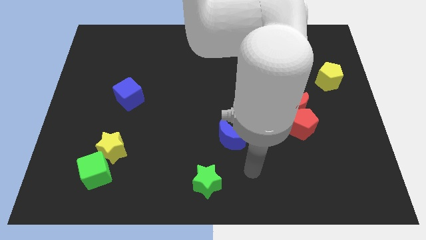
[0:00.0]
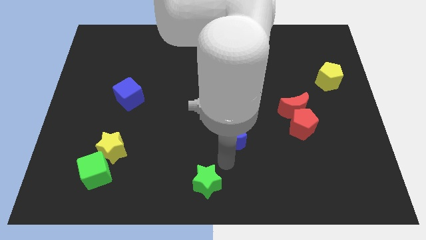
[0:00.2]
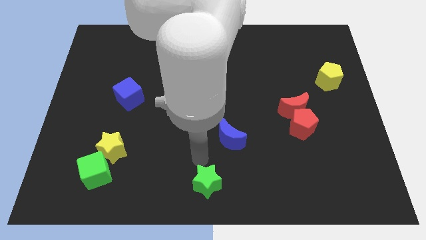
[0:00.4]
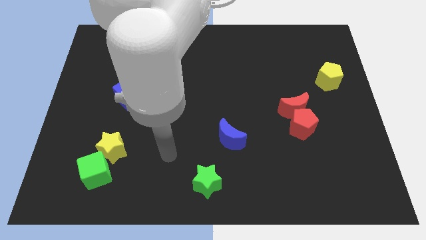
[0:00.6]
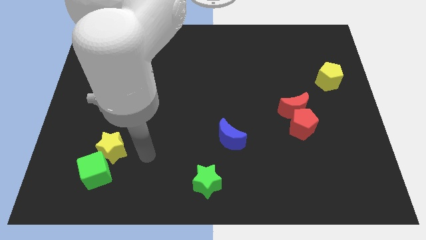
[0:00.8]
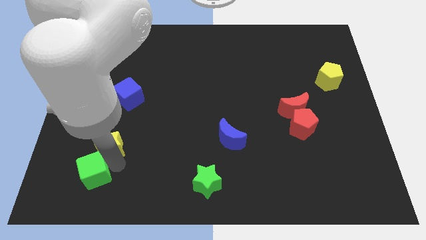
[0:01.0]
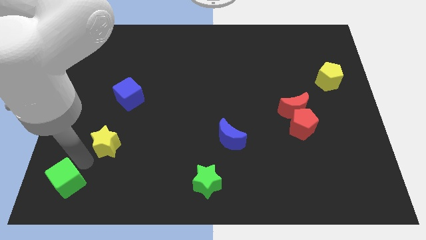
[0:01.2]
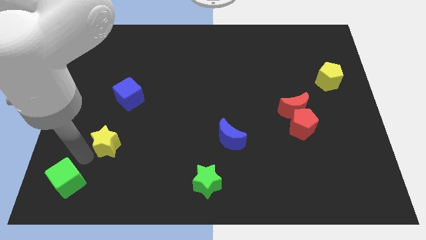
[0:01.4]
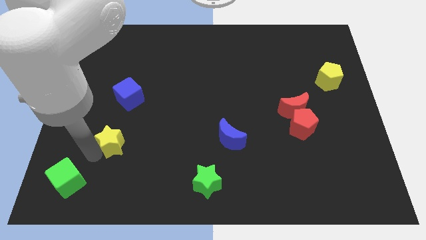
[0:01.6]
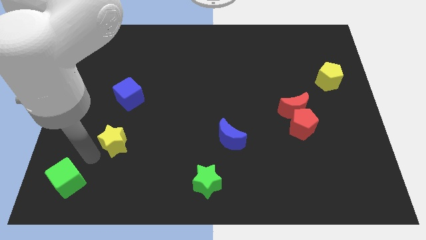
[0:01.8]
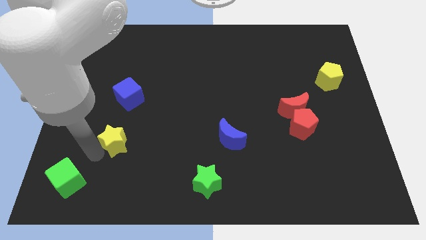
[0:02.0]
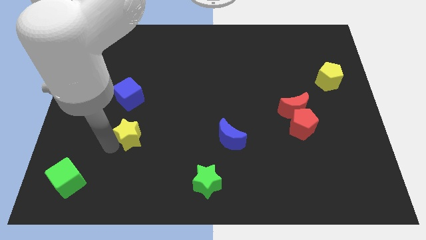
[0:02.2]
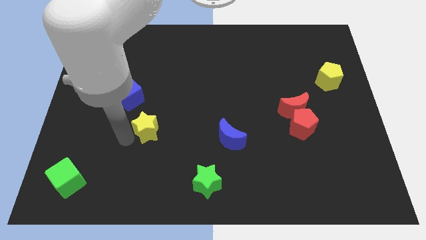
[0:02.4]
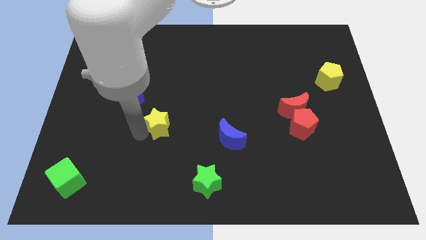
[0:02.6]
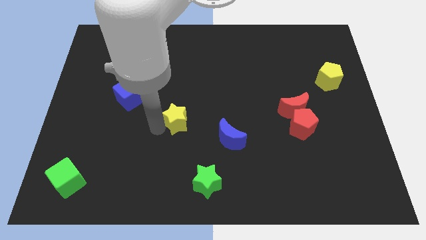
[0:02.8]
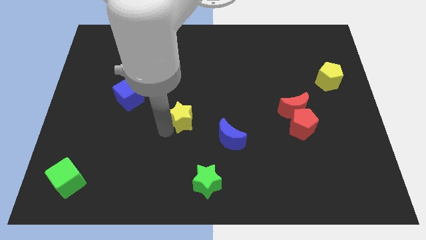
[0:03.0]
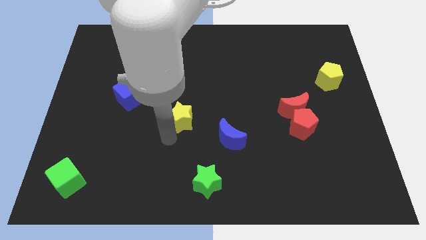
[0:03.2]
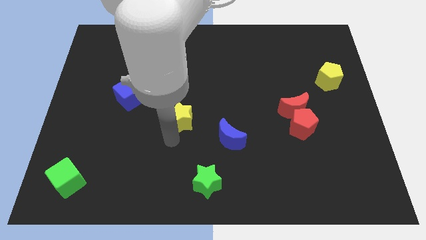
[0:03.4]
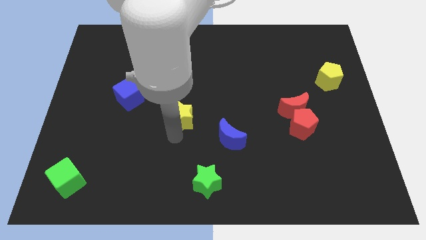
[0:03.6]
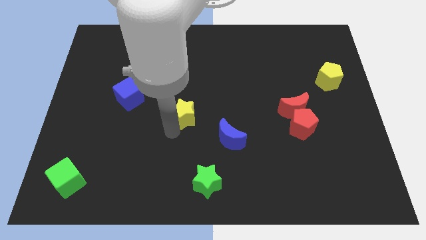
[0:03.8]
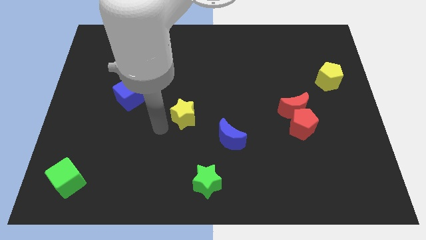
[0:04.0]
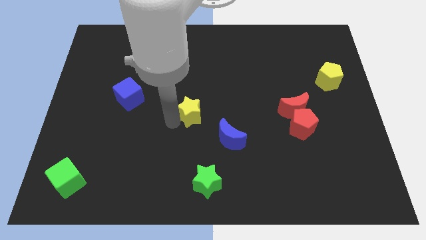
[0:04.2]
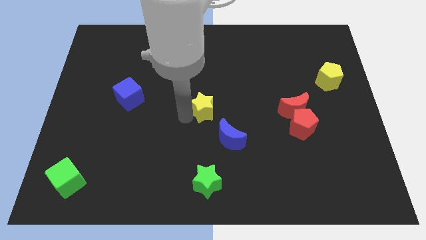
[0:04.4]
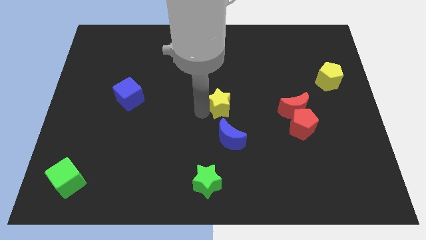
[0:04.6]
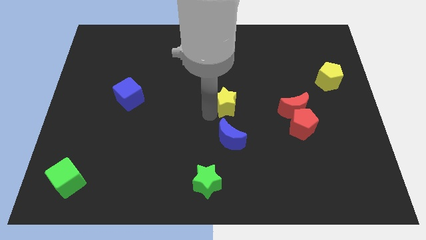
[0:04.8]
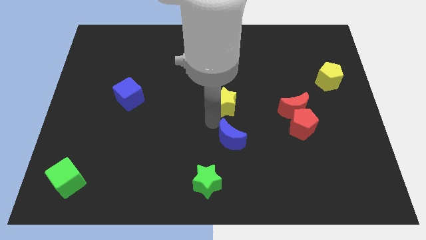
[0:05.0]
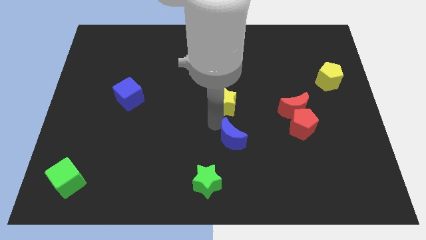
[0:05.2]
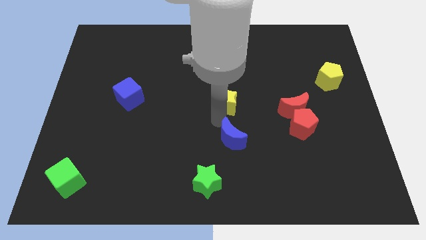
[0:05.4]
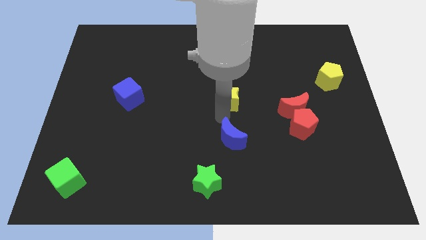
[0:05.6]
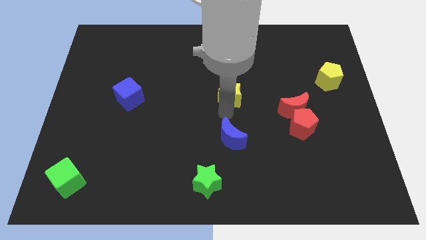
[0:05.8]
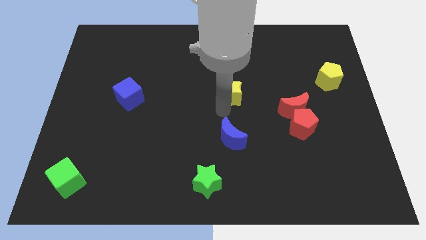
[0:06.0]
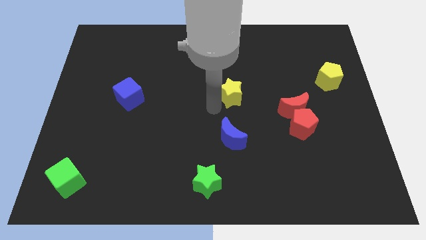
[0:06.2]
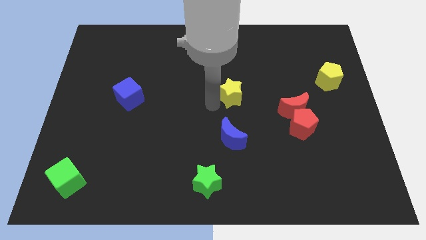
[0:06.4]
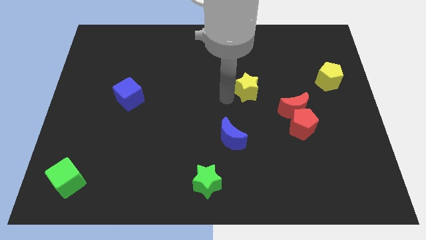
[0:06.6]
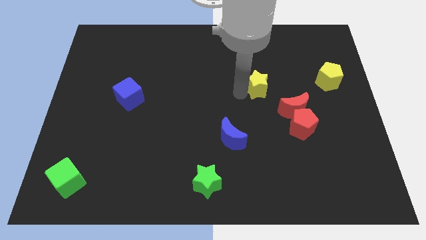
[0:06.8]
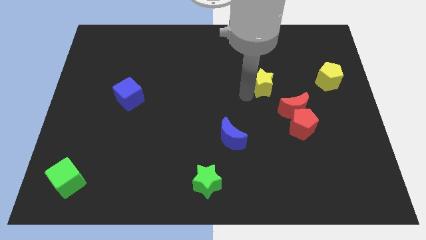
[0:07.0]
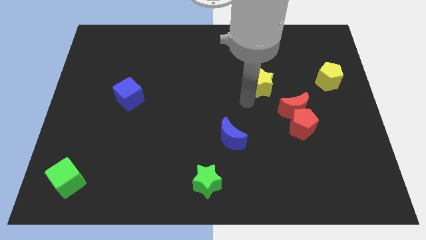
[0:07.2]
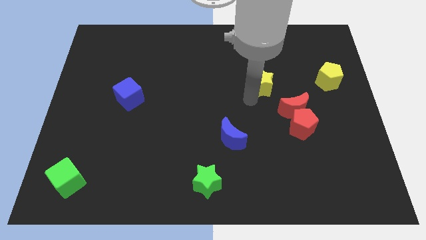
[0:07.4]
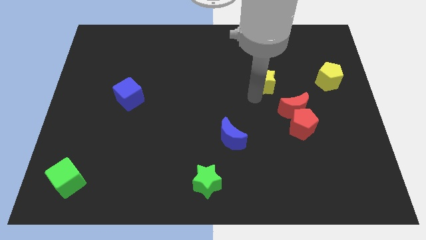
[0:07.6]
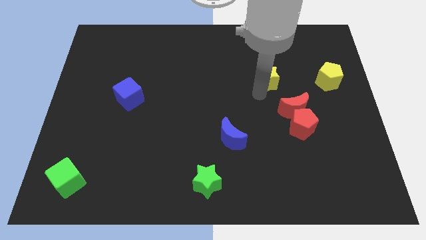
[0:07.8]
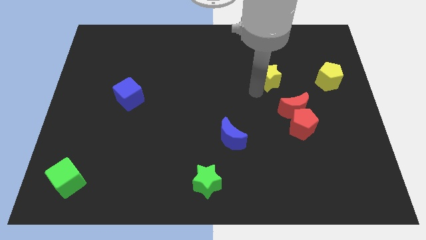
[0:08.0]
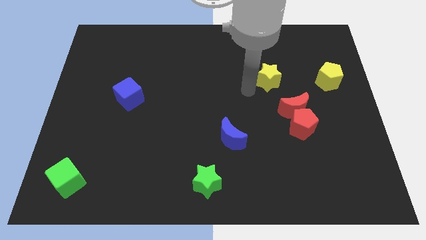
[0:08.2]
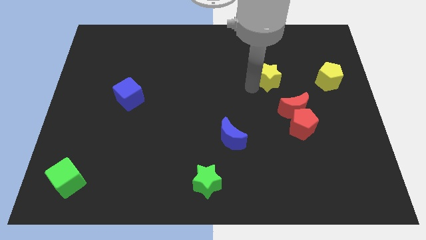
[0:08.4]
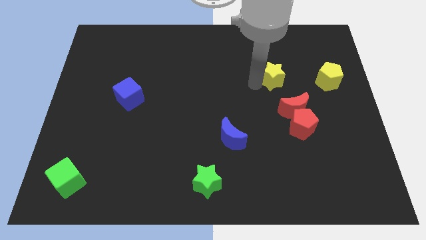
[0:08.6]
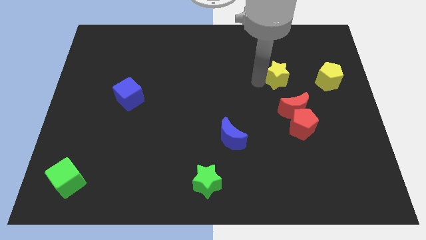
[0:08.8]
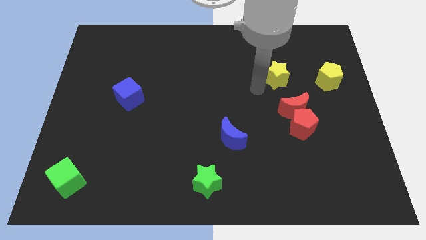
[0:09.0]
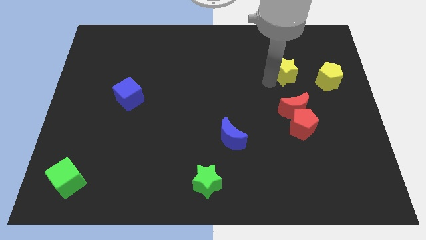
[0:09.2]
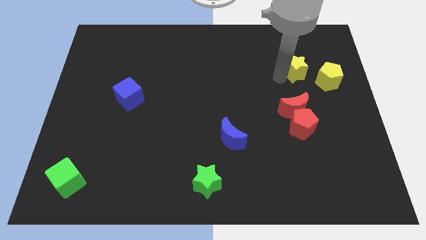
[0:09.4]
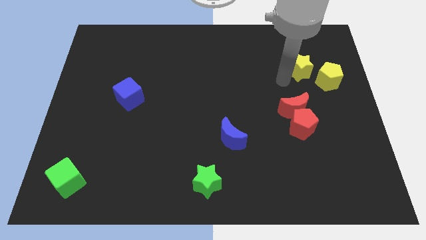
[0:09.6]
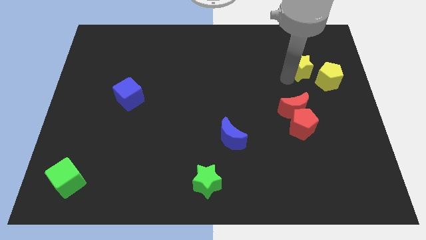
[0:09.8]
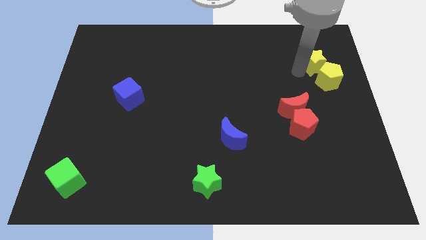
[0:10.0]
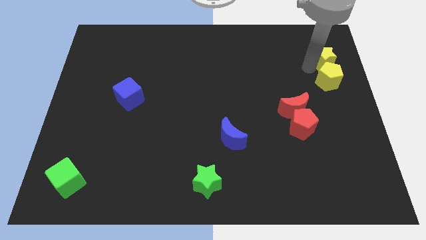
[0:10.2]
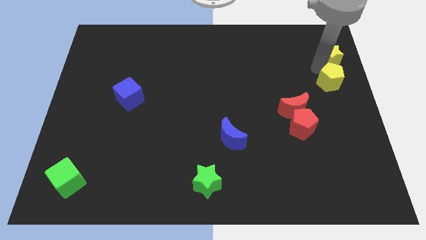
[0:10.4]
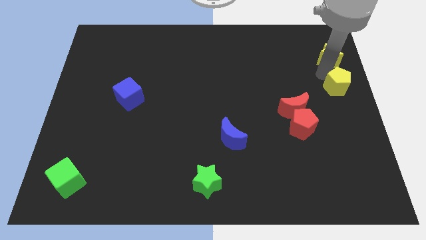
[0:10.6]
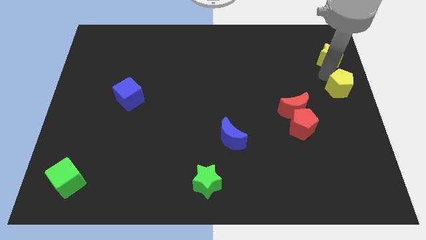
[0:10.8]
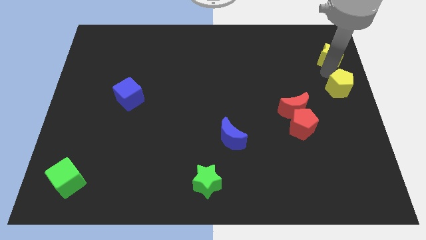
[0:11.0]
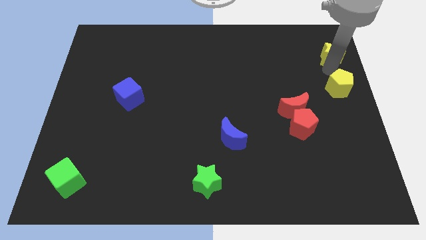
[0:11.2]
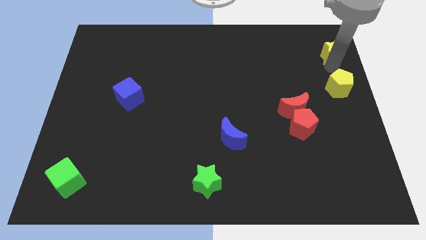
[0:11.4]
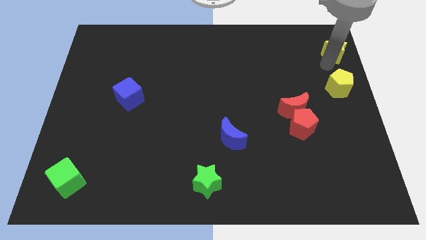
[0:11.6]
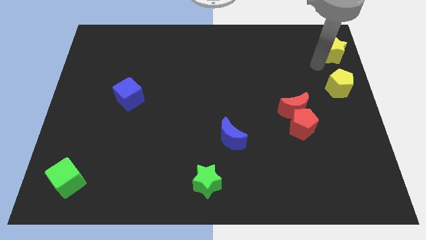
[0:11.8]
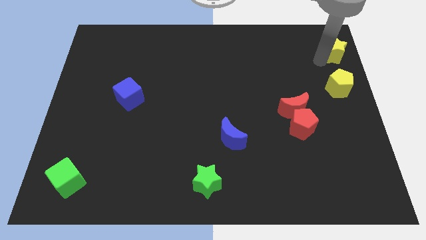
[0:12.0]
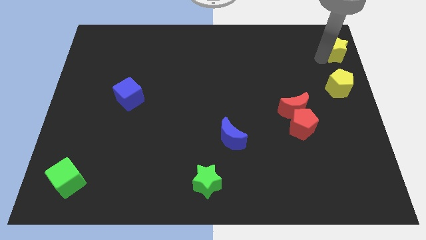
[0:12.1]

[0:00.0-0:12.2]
slide the yellow star to the top right

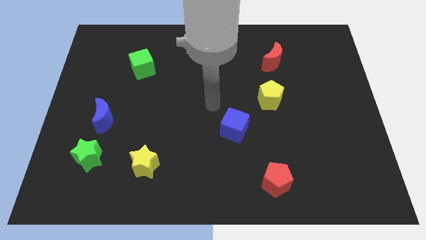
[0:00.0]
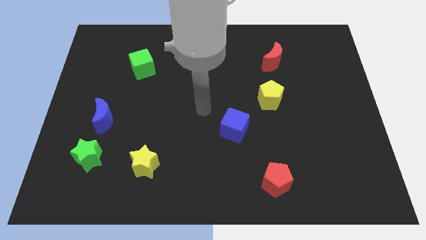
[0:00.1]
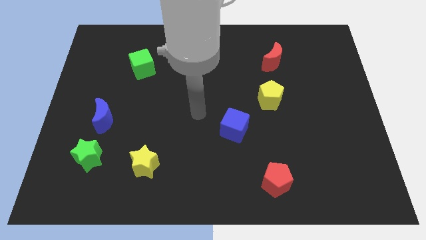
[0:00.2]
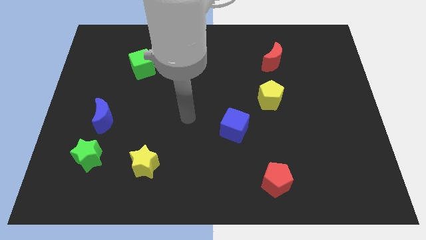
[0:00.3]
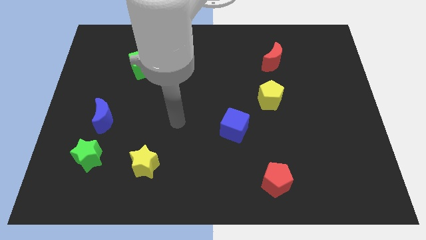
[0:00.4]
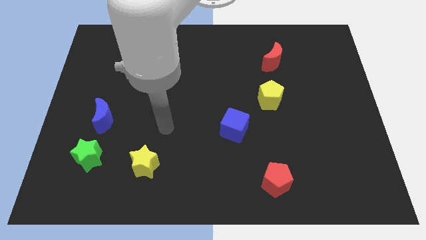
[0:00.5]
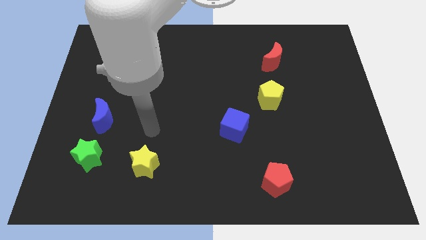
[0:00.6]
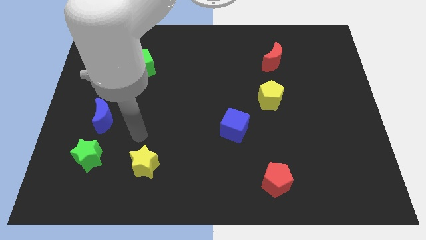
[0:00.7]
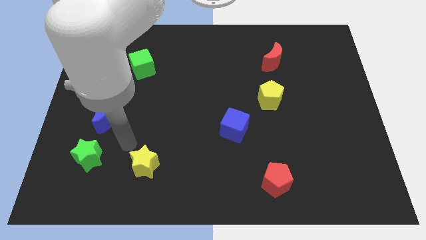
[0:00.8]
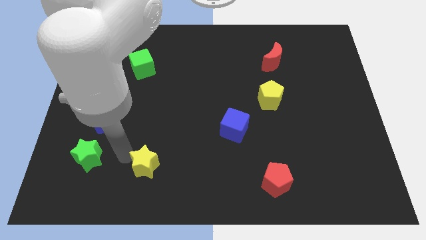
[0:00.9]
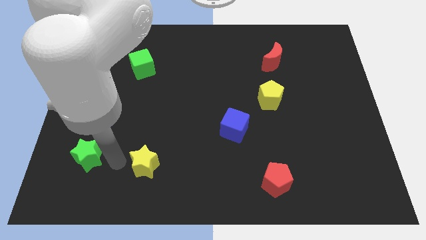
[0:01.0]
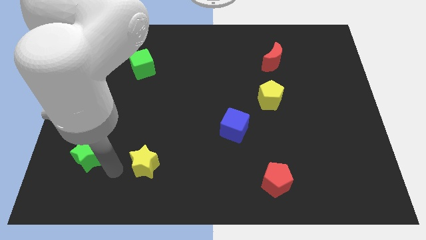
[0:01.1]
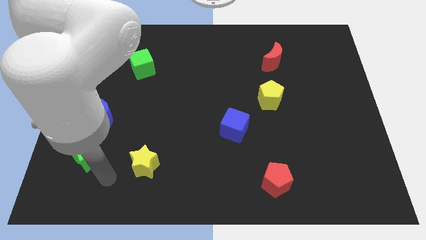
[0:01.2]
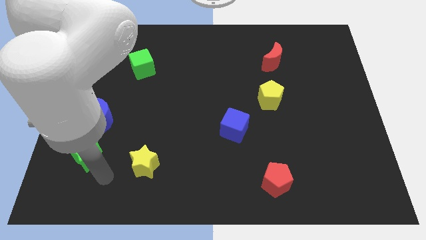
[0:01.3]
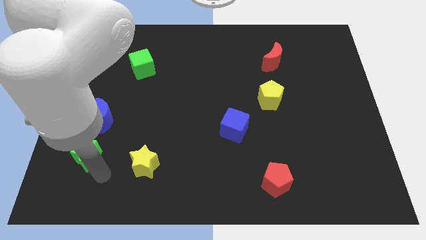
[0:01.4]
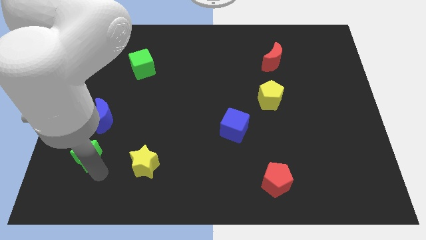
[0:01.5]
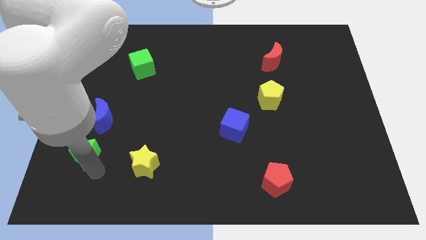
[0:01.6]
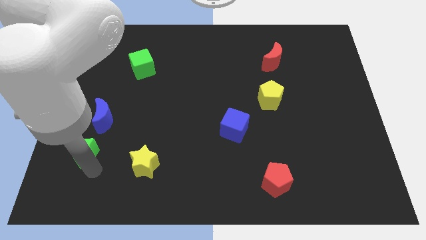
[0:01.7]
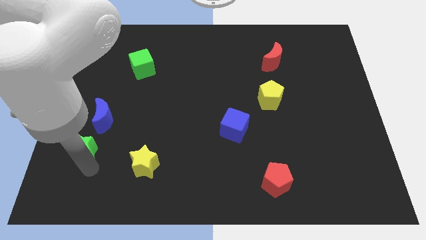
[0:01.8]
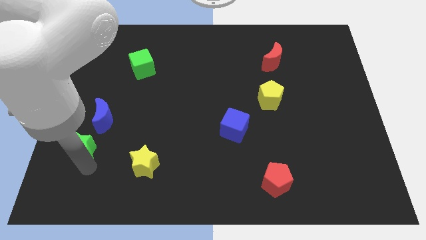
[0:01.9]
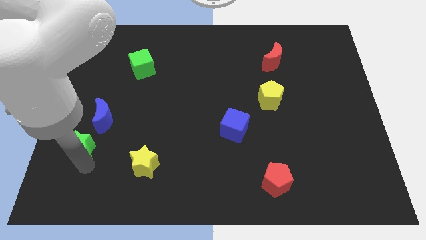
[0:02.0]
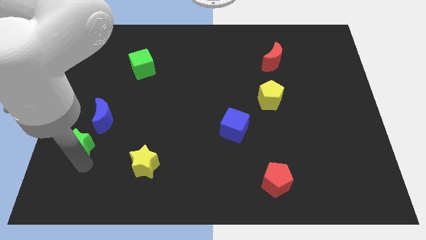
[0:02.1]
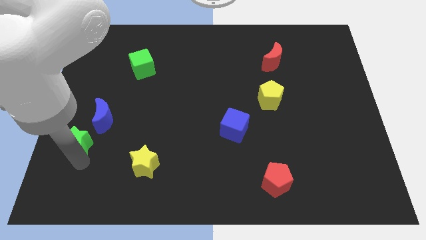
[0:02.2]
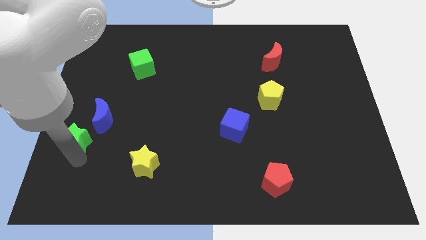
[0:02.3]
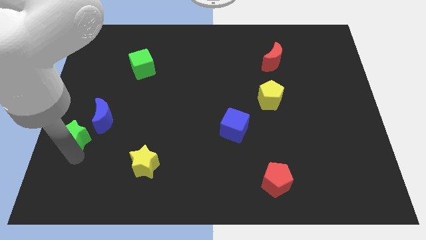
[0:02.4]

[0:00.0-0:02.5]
move the green star to the center left
